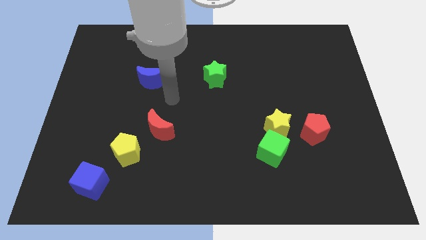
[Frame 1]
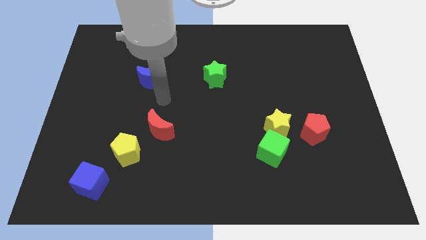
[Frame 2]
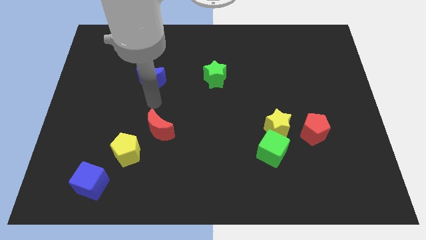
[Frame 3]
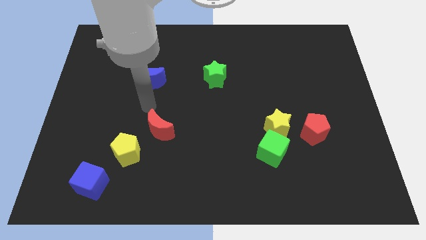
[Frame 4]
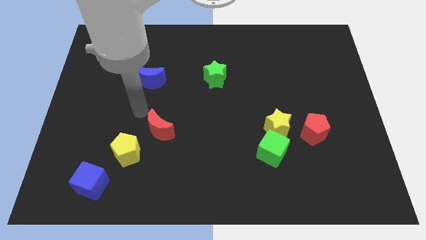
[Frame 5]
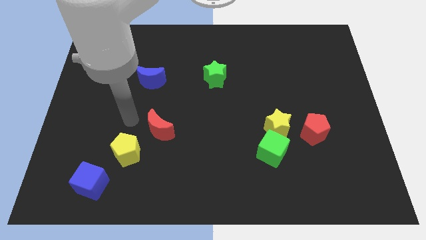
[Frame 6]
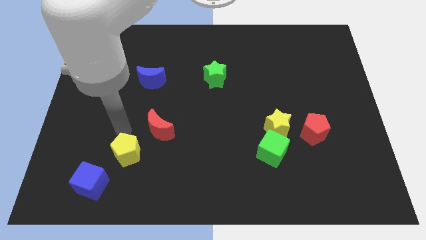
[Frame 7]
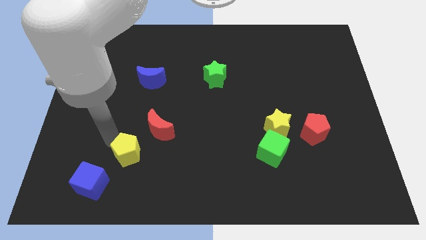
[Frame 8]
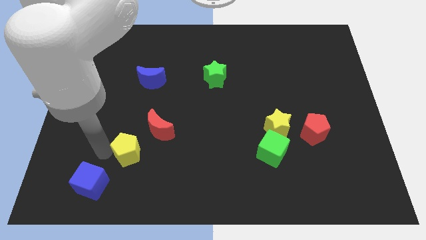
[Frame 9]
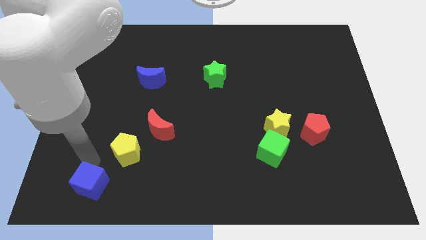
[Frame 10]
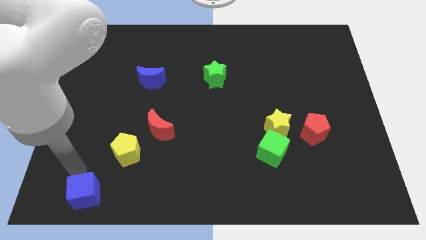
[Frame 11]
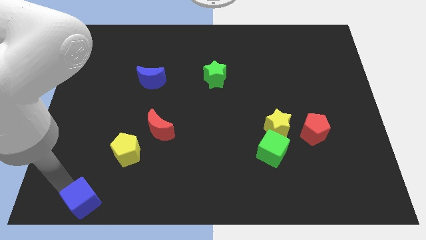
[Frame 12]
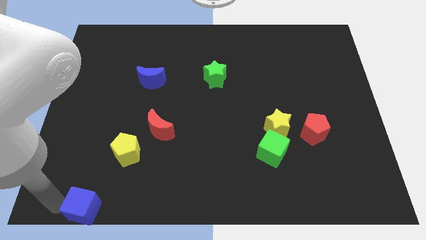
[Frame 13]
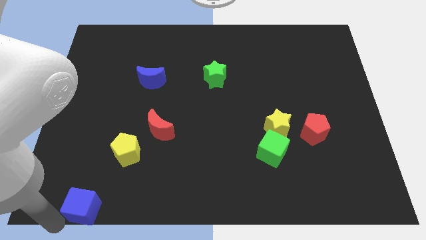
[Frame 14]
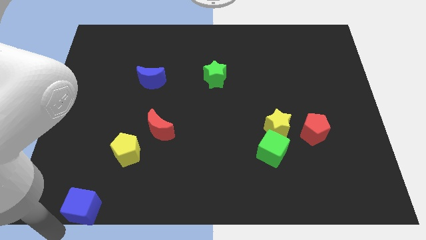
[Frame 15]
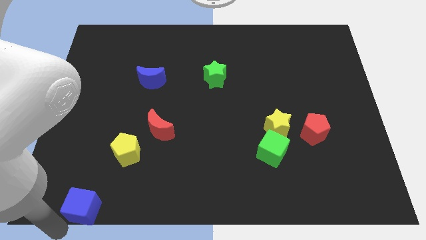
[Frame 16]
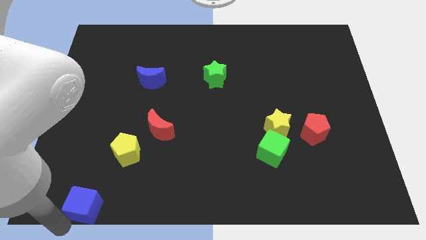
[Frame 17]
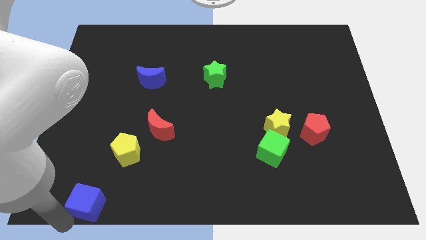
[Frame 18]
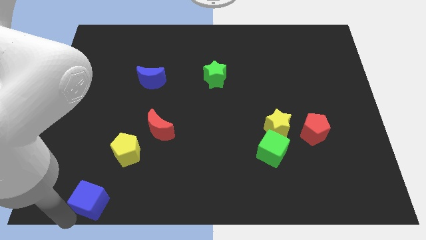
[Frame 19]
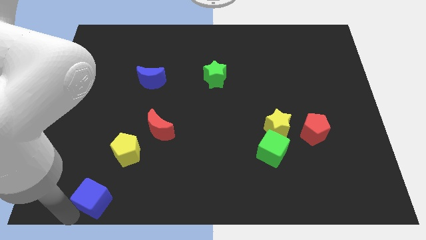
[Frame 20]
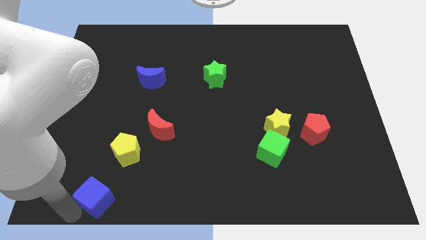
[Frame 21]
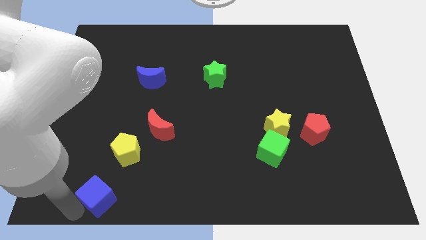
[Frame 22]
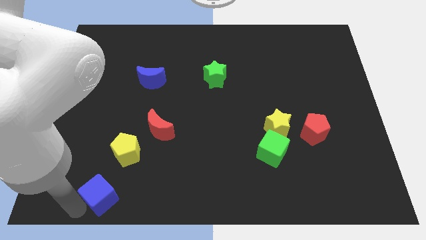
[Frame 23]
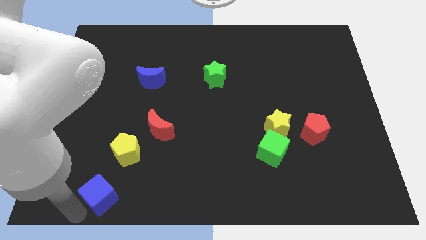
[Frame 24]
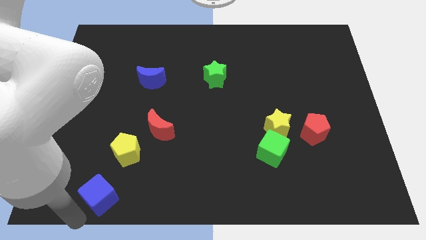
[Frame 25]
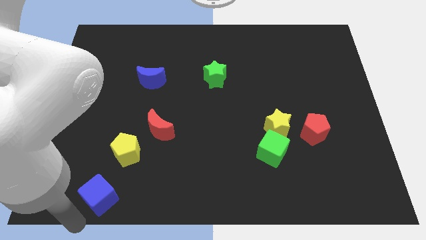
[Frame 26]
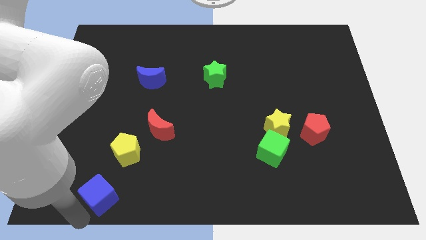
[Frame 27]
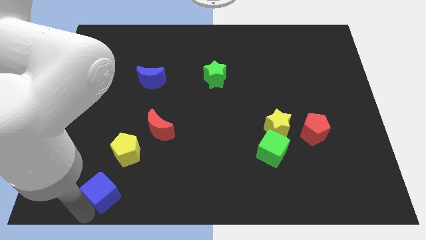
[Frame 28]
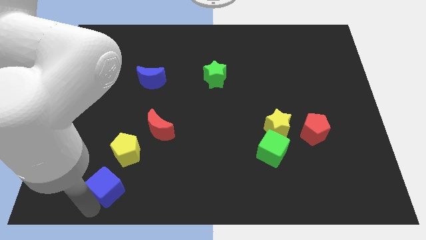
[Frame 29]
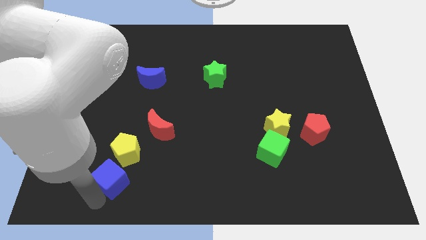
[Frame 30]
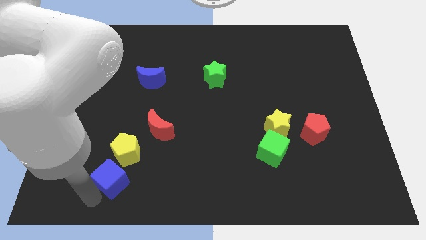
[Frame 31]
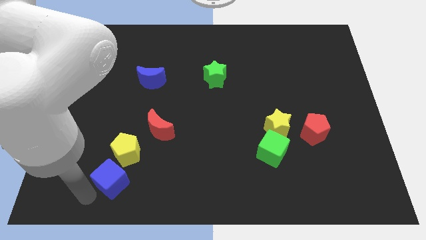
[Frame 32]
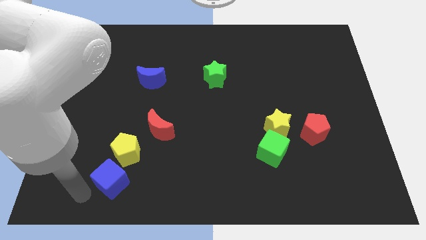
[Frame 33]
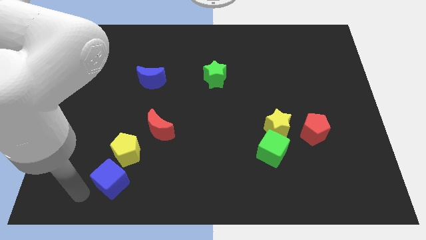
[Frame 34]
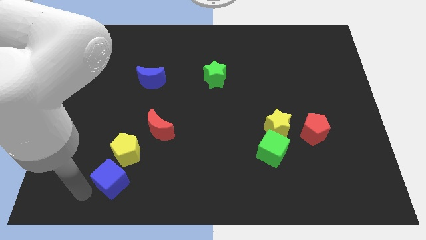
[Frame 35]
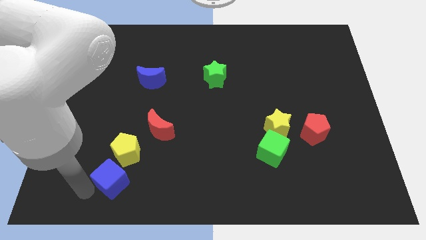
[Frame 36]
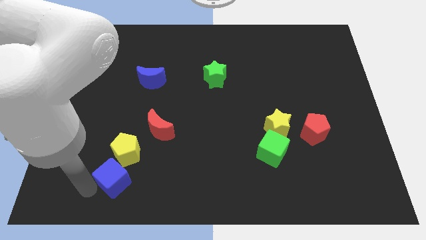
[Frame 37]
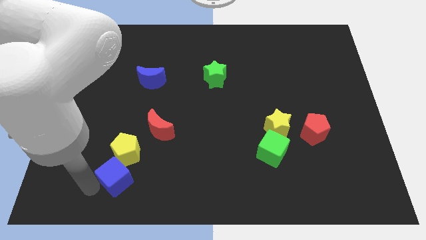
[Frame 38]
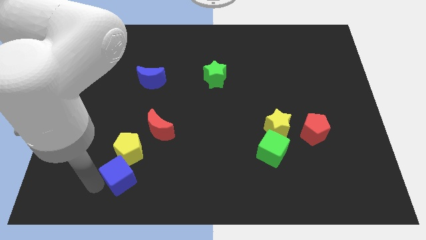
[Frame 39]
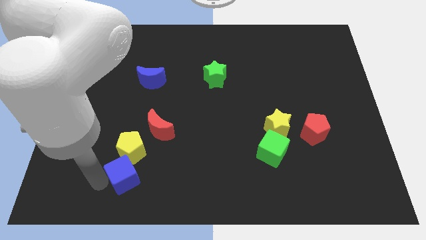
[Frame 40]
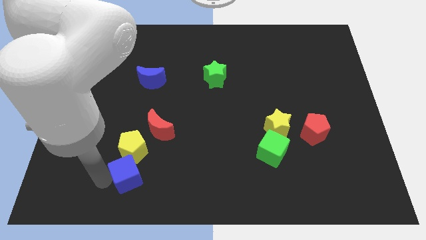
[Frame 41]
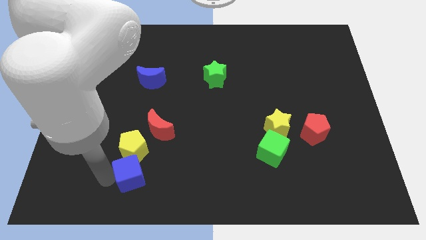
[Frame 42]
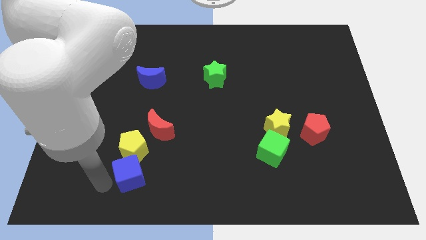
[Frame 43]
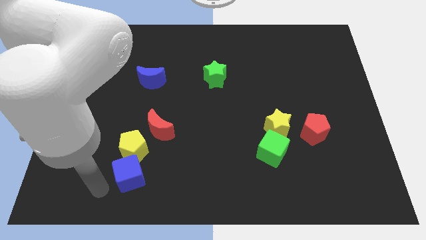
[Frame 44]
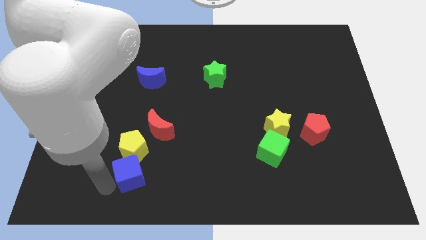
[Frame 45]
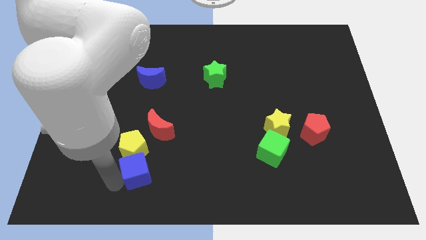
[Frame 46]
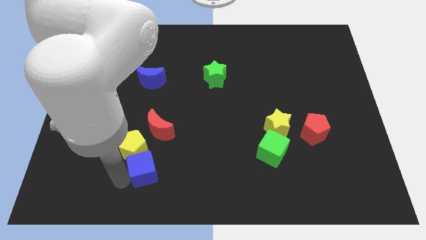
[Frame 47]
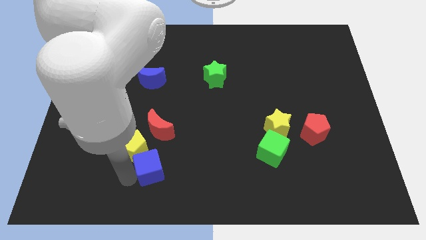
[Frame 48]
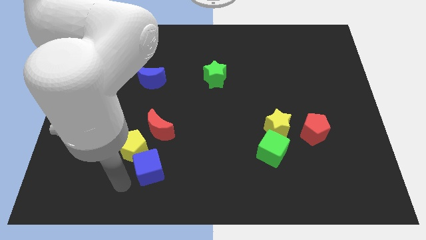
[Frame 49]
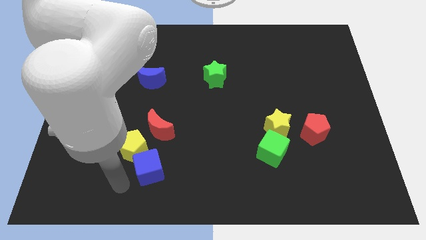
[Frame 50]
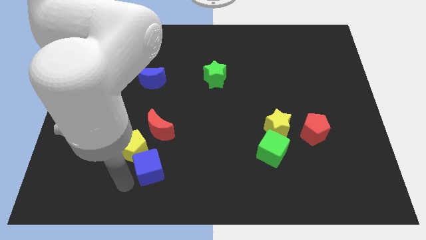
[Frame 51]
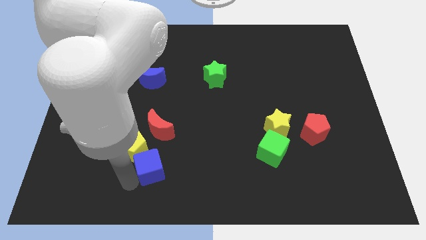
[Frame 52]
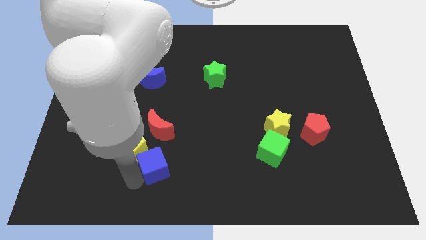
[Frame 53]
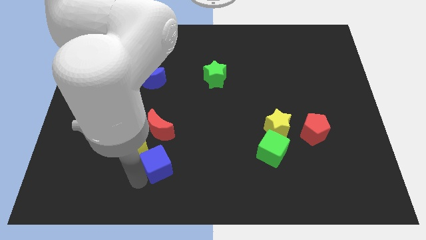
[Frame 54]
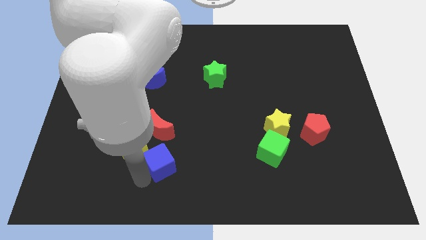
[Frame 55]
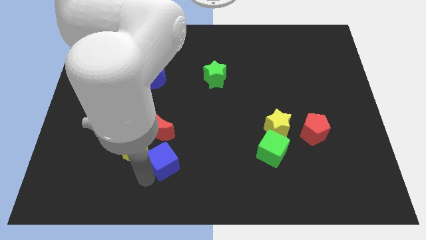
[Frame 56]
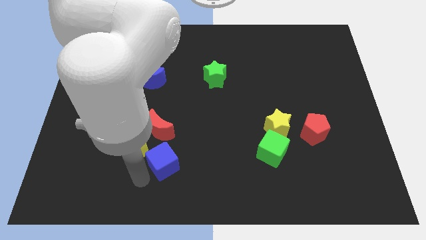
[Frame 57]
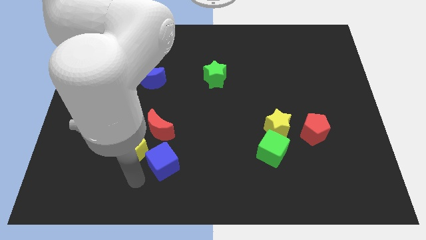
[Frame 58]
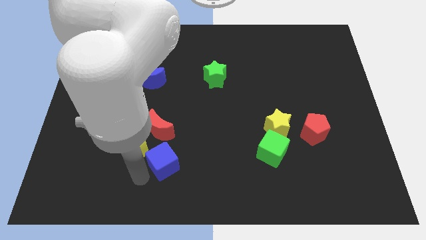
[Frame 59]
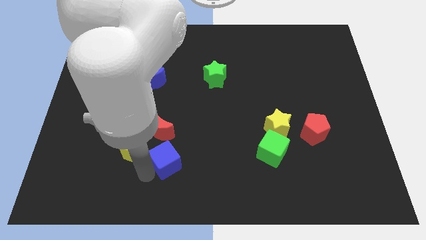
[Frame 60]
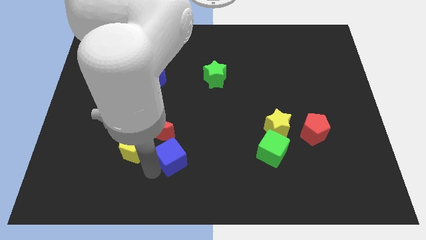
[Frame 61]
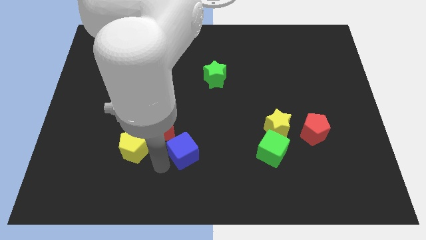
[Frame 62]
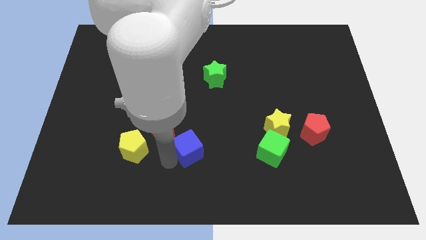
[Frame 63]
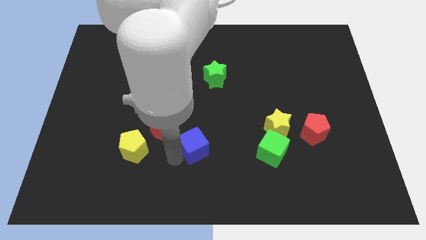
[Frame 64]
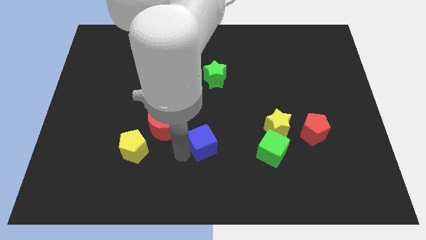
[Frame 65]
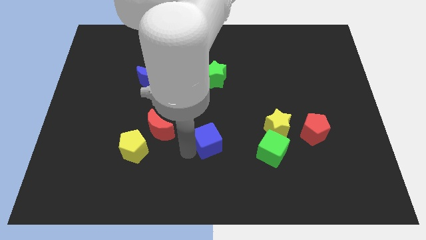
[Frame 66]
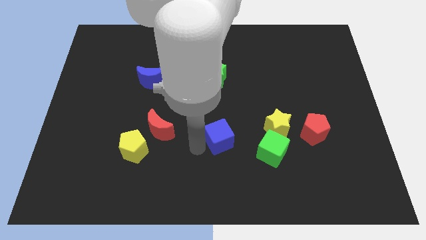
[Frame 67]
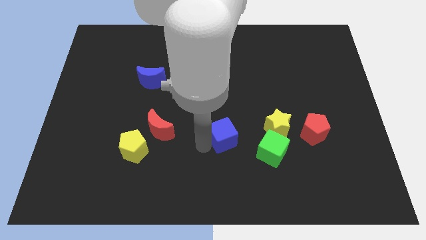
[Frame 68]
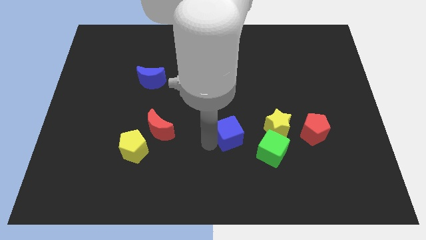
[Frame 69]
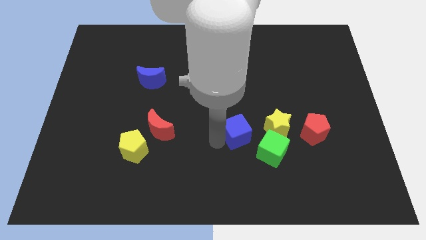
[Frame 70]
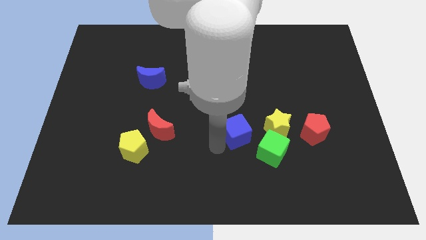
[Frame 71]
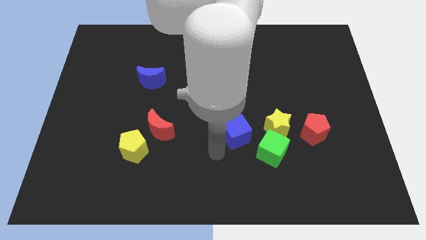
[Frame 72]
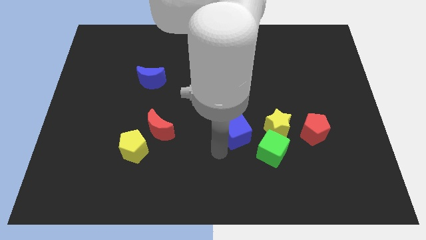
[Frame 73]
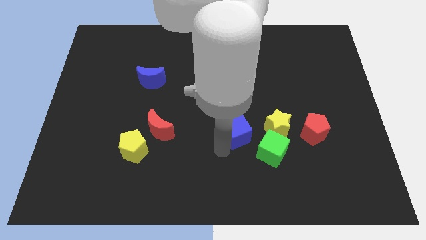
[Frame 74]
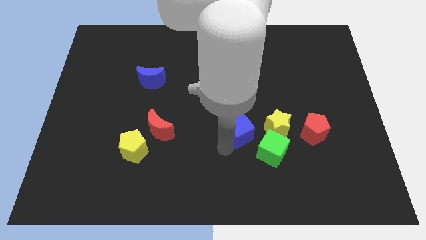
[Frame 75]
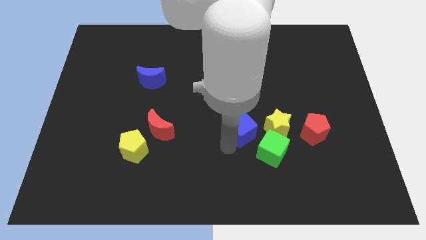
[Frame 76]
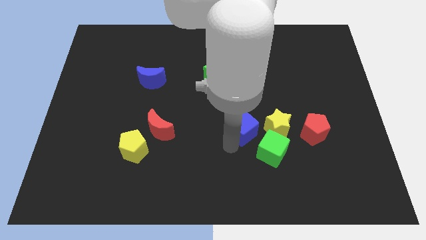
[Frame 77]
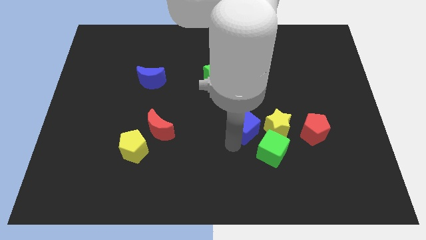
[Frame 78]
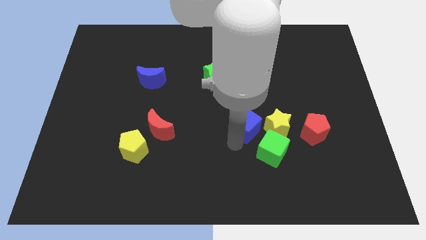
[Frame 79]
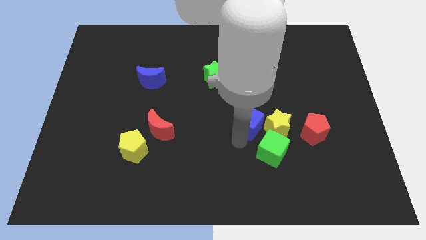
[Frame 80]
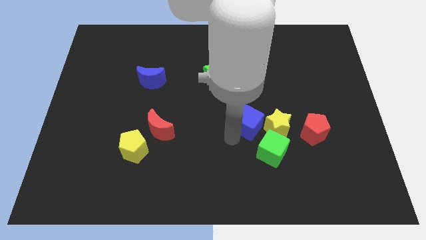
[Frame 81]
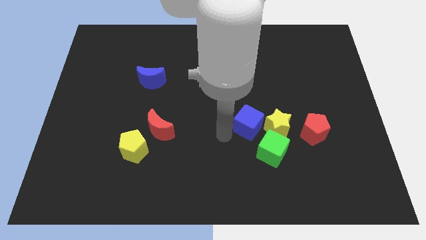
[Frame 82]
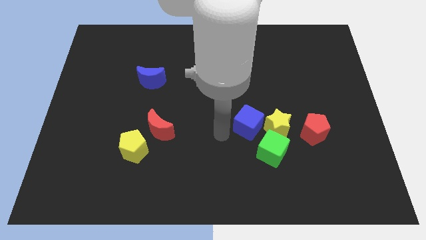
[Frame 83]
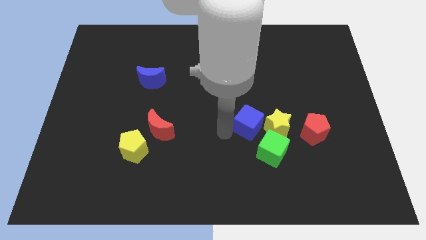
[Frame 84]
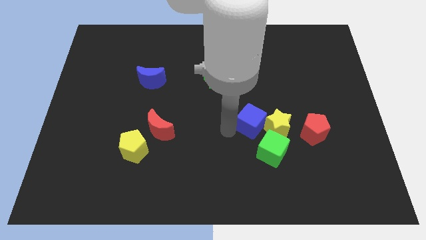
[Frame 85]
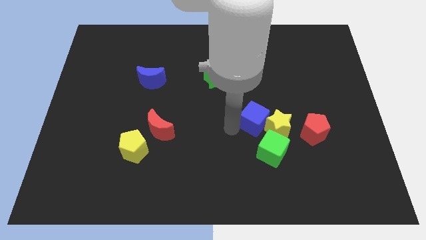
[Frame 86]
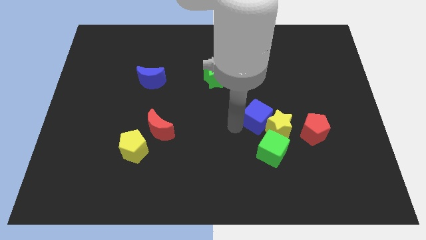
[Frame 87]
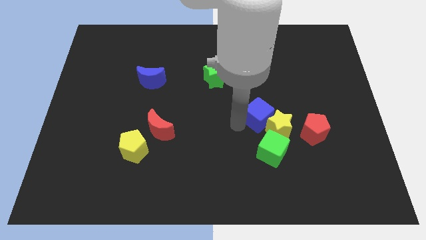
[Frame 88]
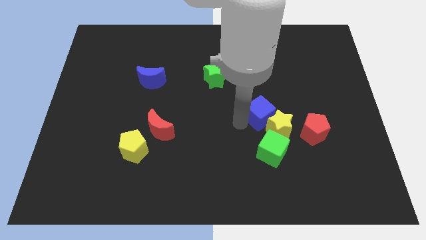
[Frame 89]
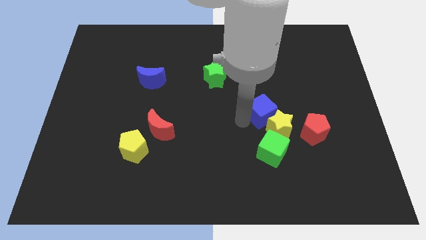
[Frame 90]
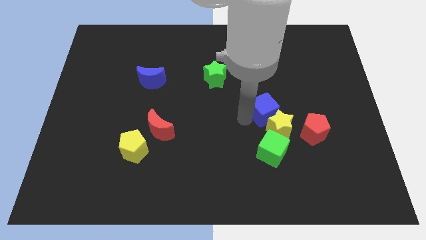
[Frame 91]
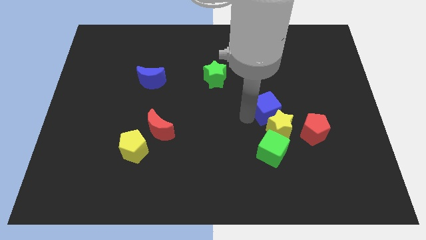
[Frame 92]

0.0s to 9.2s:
move the blue cube to the top left side of the red pentagon
